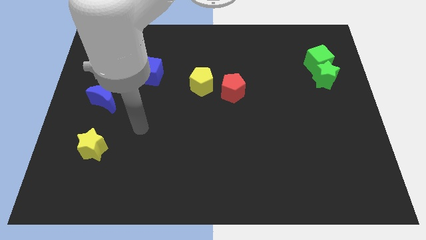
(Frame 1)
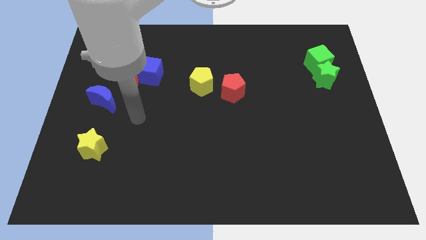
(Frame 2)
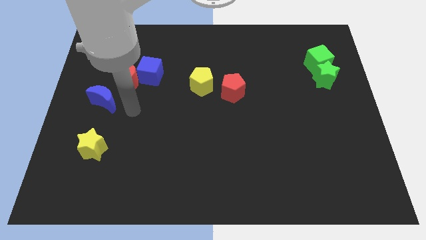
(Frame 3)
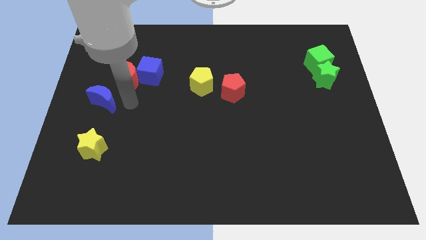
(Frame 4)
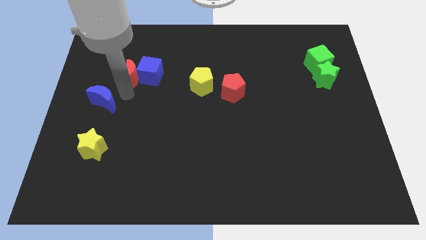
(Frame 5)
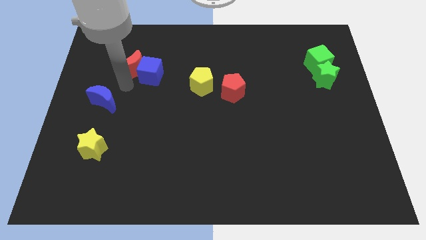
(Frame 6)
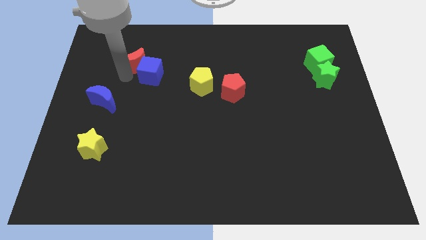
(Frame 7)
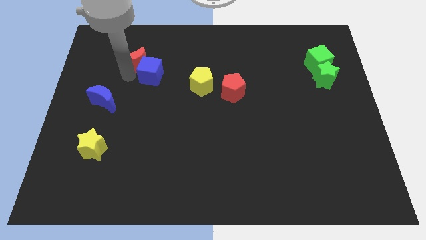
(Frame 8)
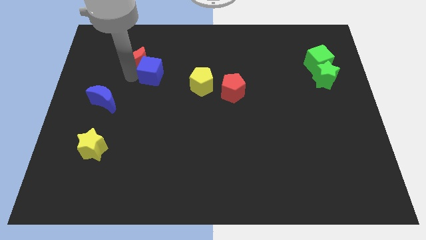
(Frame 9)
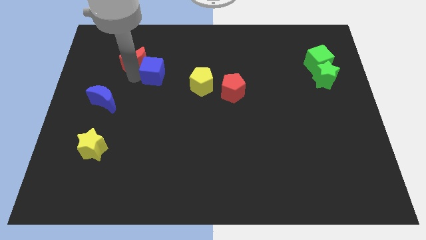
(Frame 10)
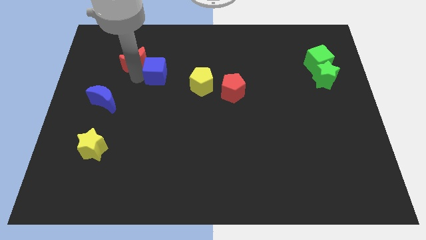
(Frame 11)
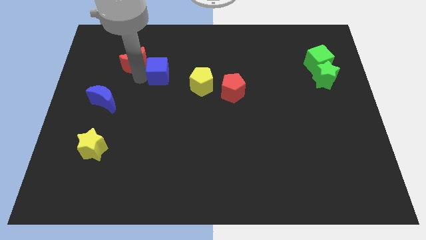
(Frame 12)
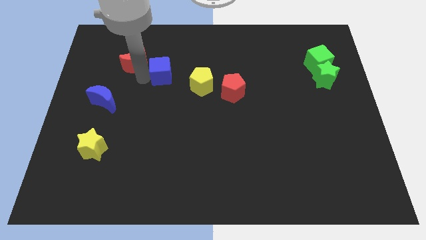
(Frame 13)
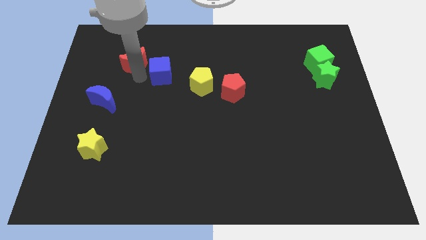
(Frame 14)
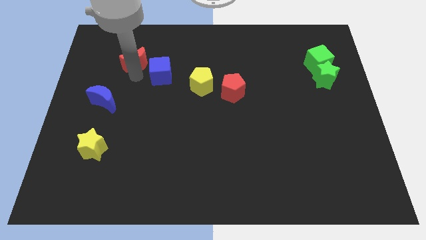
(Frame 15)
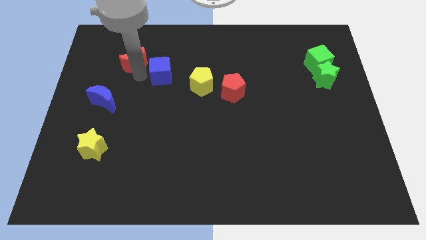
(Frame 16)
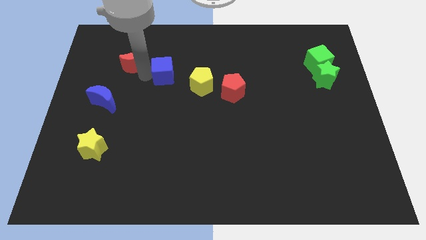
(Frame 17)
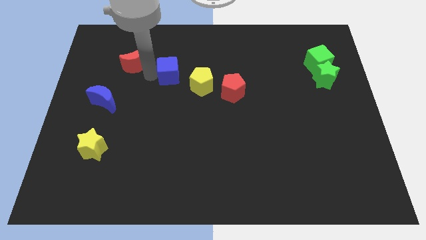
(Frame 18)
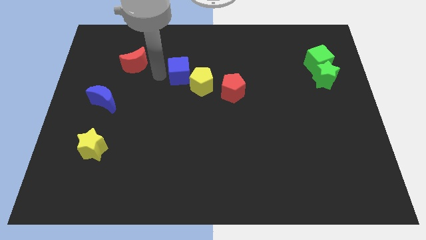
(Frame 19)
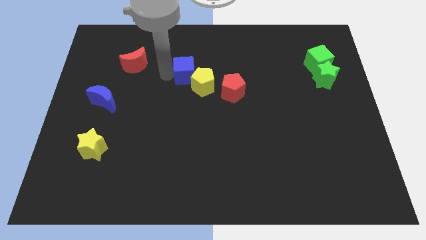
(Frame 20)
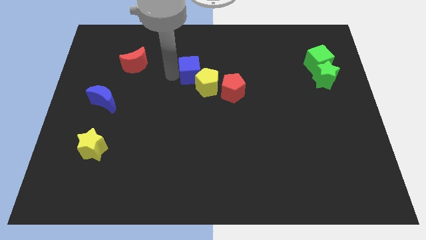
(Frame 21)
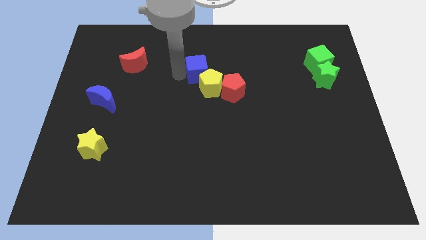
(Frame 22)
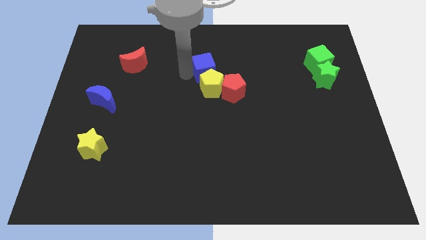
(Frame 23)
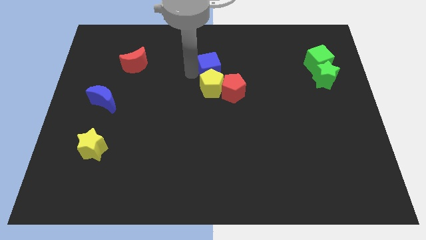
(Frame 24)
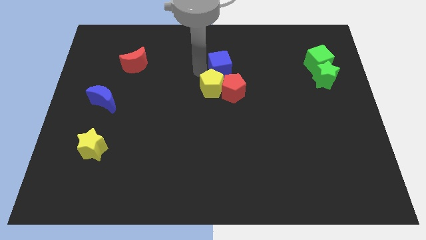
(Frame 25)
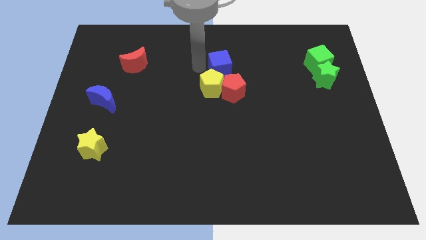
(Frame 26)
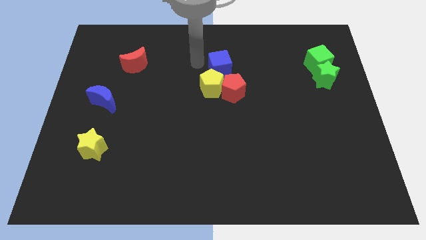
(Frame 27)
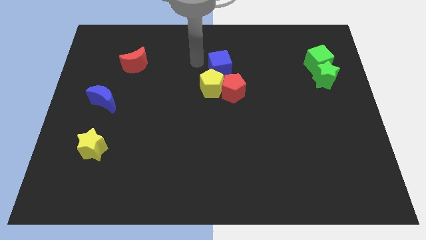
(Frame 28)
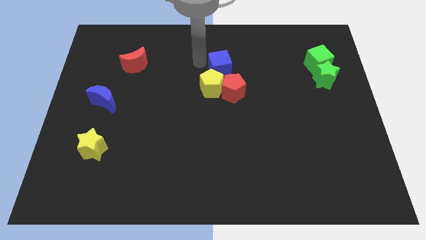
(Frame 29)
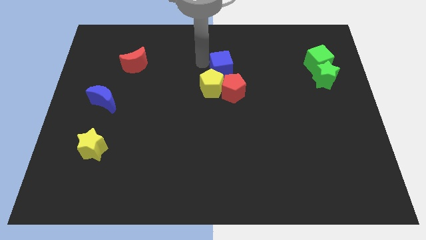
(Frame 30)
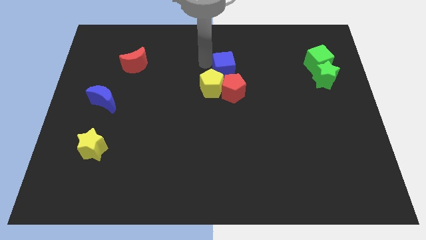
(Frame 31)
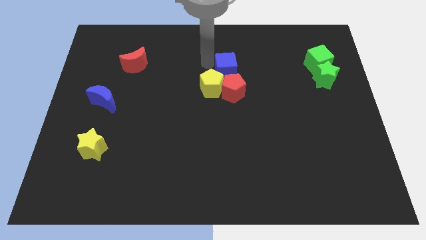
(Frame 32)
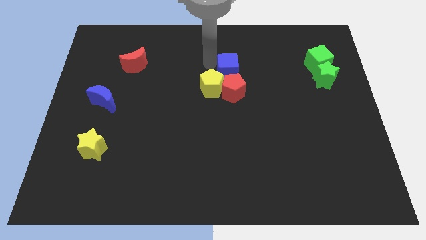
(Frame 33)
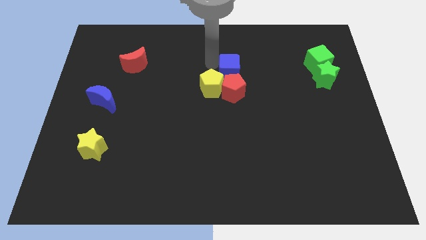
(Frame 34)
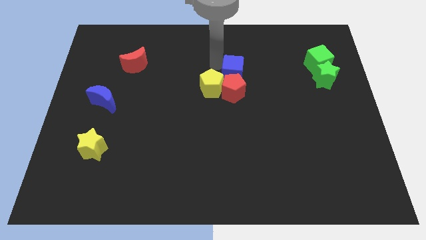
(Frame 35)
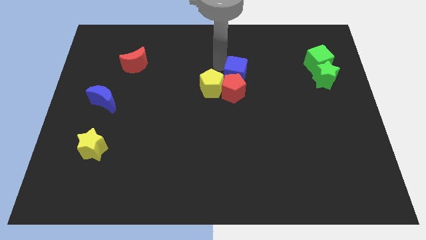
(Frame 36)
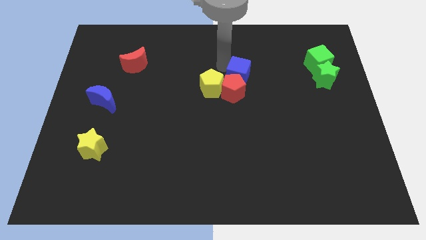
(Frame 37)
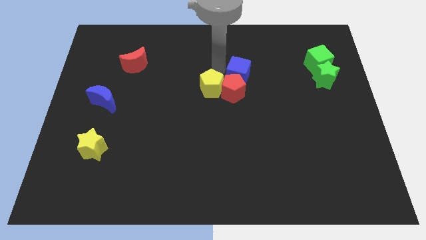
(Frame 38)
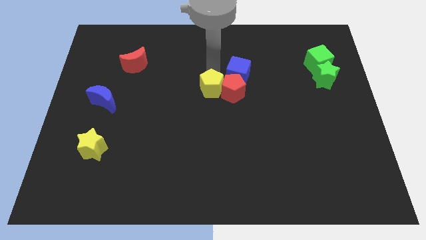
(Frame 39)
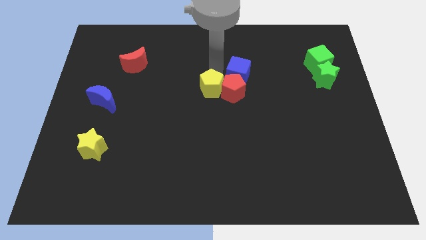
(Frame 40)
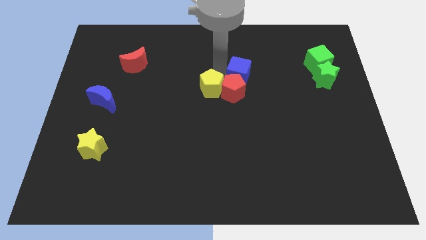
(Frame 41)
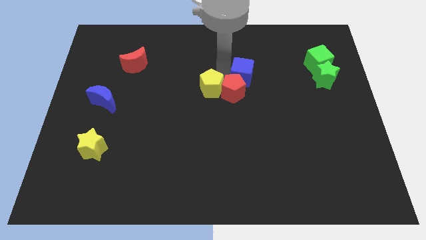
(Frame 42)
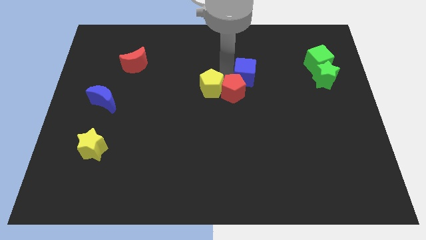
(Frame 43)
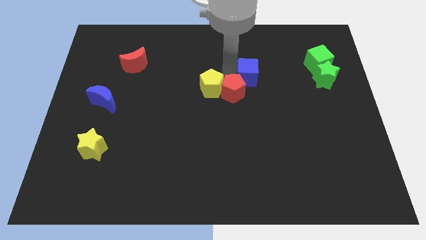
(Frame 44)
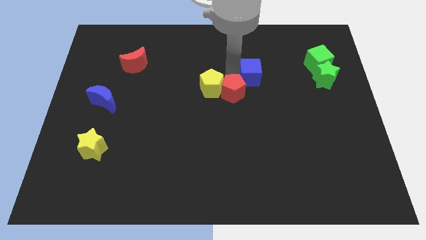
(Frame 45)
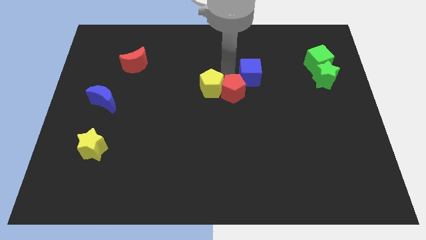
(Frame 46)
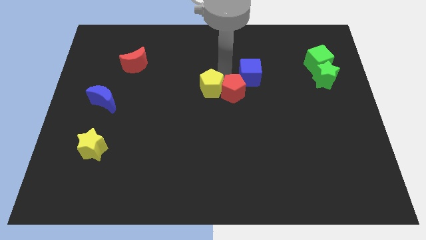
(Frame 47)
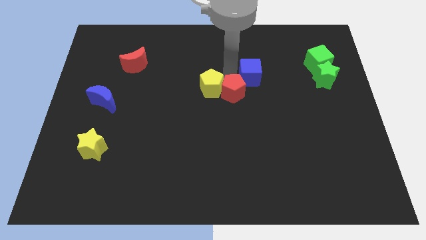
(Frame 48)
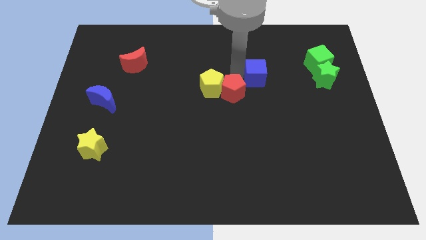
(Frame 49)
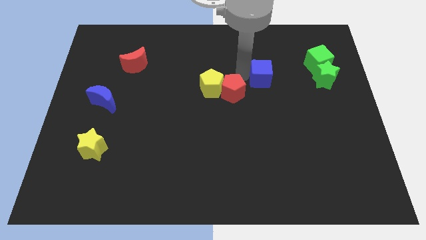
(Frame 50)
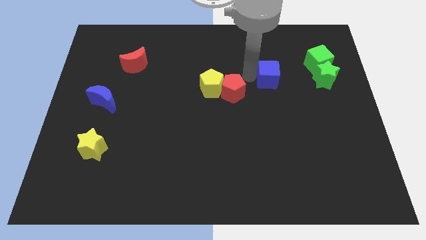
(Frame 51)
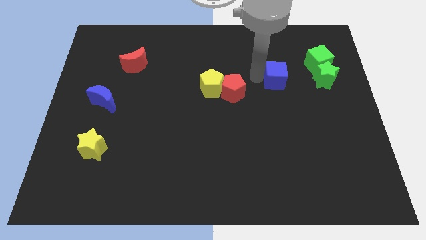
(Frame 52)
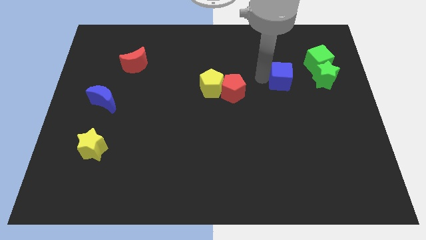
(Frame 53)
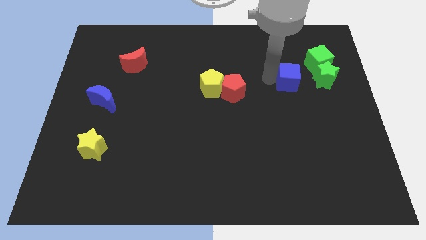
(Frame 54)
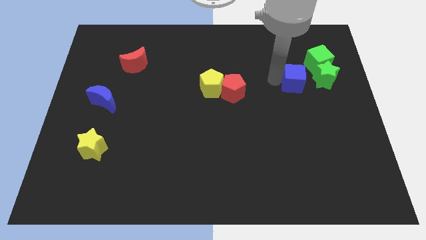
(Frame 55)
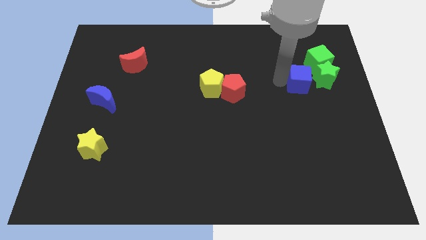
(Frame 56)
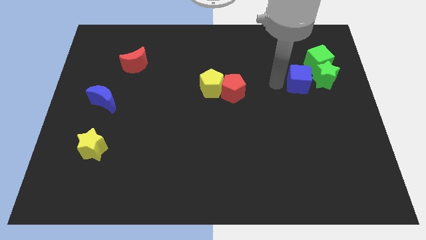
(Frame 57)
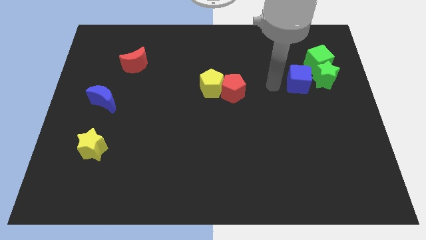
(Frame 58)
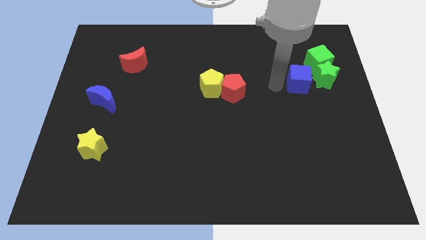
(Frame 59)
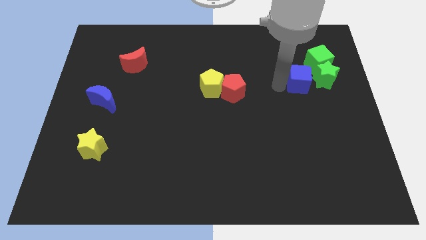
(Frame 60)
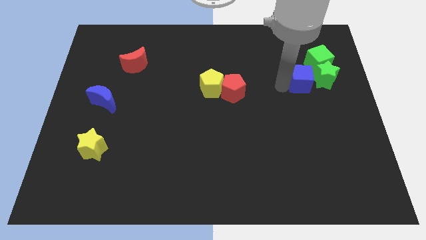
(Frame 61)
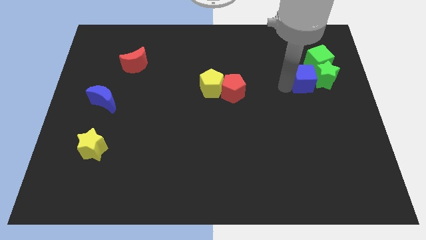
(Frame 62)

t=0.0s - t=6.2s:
slide the blue cube next to the green star

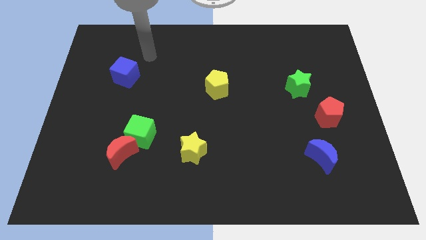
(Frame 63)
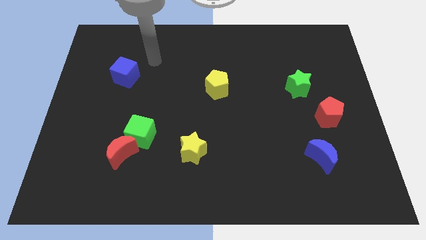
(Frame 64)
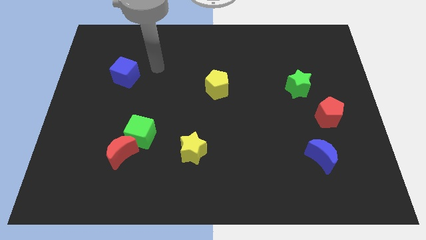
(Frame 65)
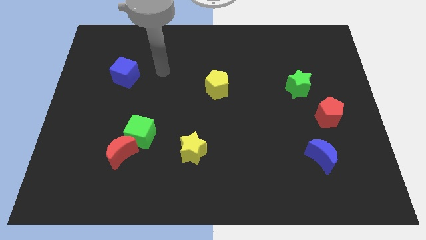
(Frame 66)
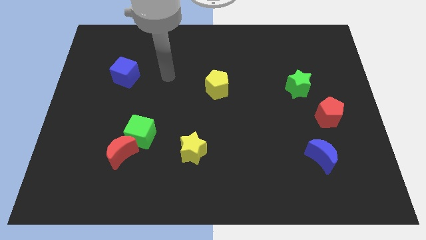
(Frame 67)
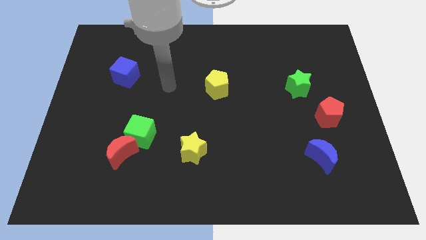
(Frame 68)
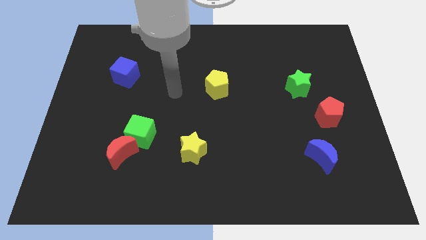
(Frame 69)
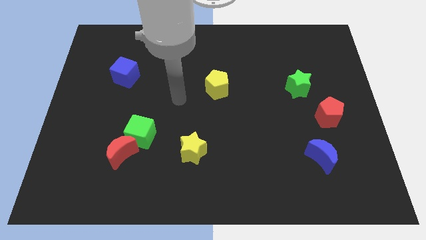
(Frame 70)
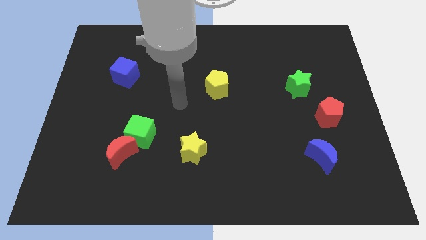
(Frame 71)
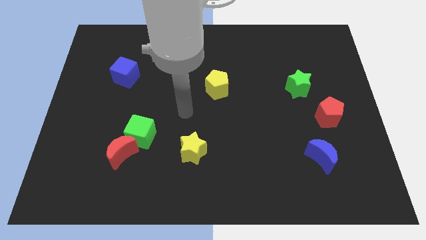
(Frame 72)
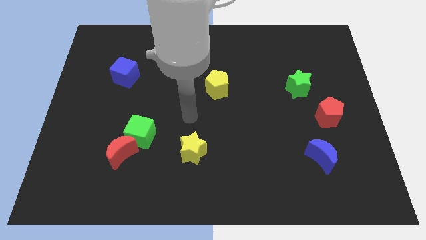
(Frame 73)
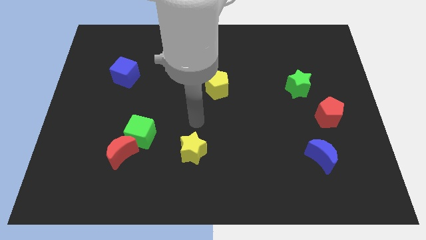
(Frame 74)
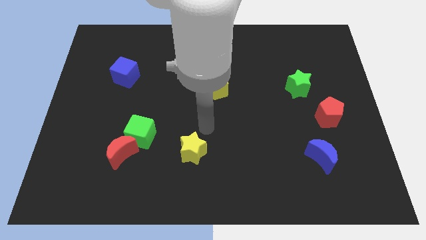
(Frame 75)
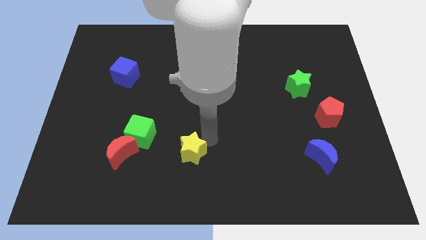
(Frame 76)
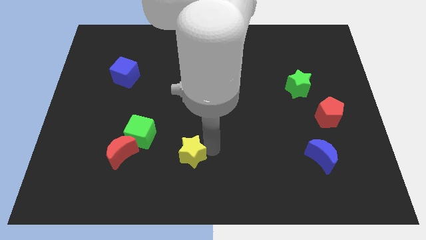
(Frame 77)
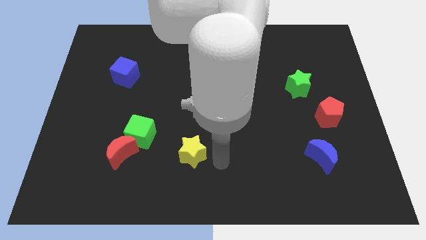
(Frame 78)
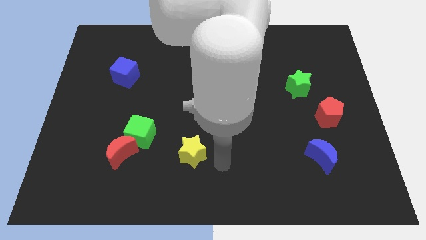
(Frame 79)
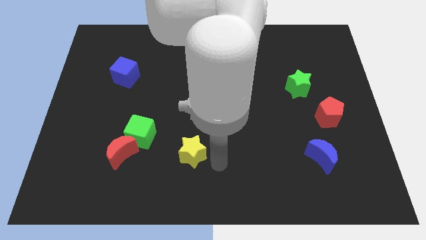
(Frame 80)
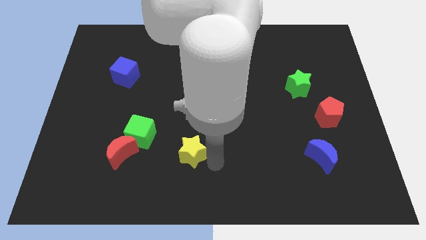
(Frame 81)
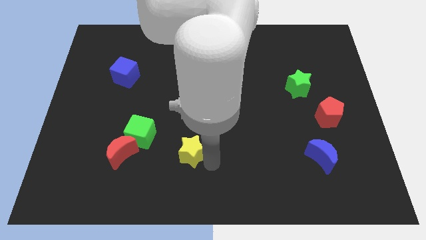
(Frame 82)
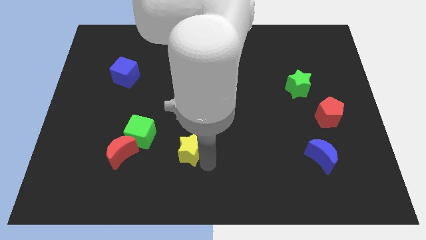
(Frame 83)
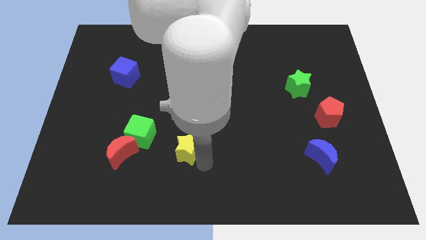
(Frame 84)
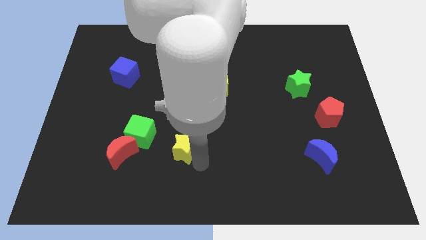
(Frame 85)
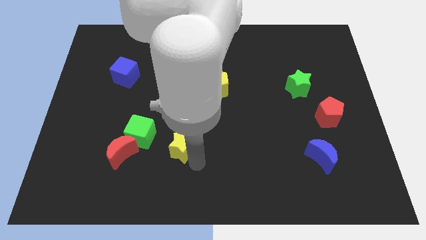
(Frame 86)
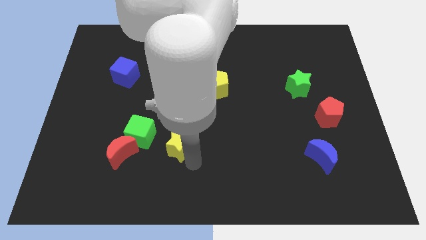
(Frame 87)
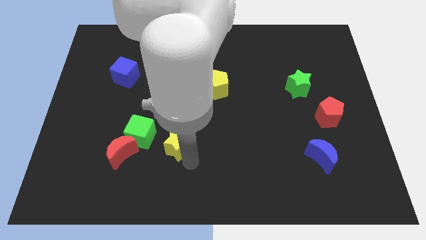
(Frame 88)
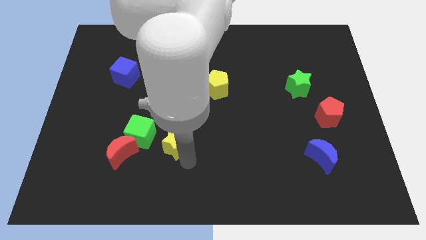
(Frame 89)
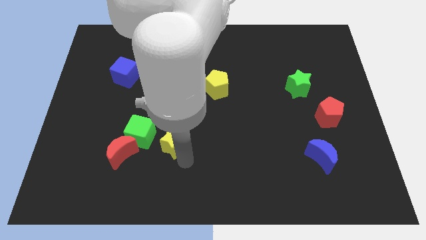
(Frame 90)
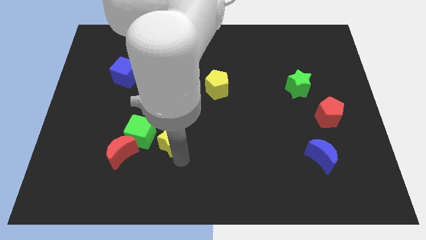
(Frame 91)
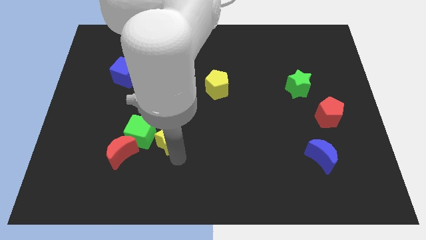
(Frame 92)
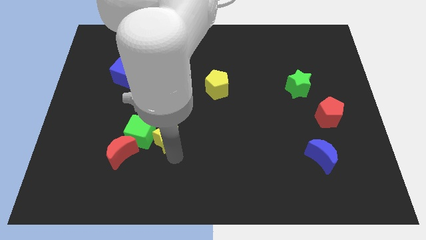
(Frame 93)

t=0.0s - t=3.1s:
move the yellow star towards the green cube
